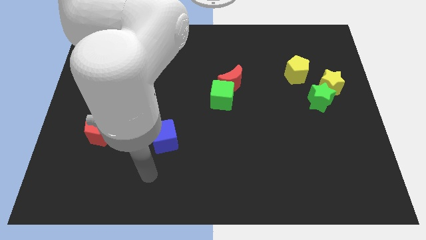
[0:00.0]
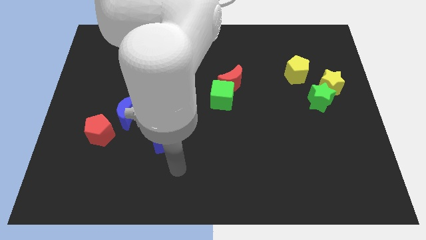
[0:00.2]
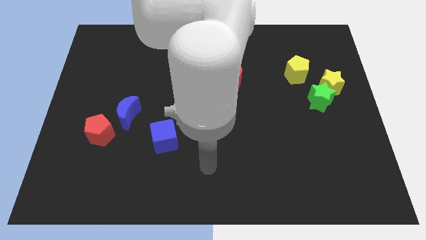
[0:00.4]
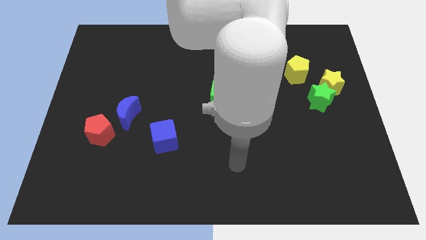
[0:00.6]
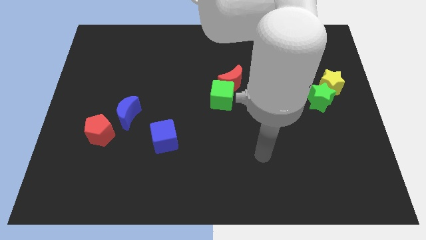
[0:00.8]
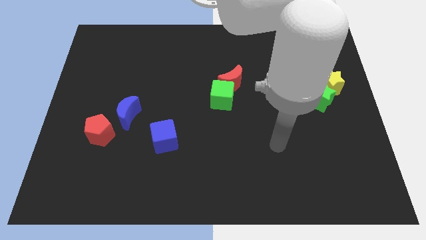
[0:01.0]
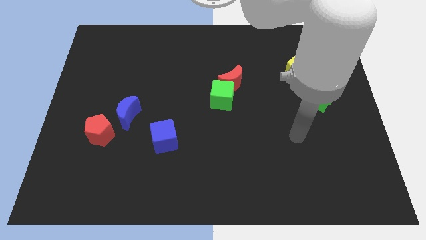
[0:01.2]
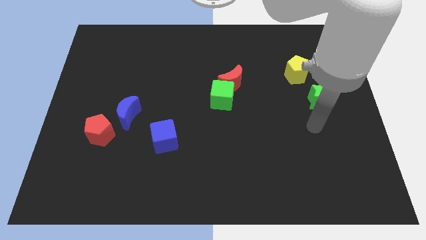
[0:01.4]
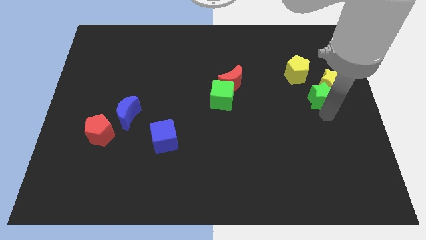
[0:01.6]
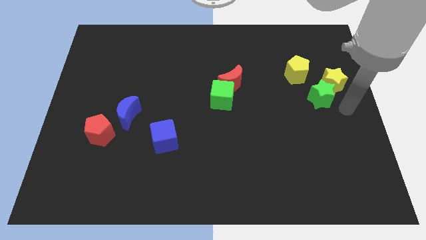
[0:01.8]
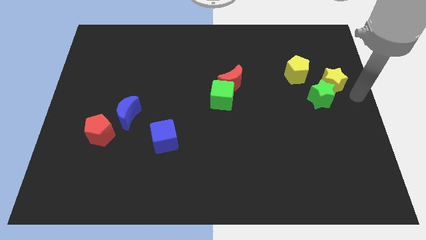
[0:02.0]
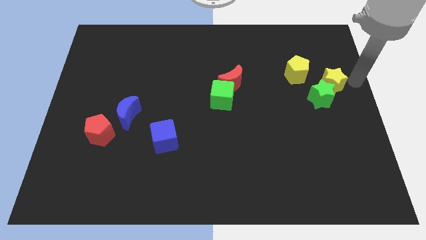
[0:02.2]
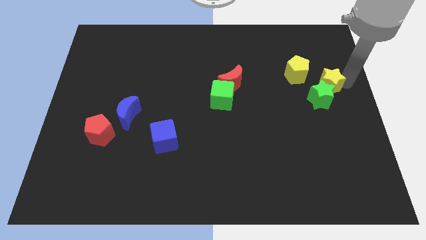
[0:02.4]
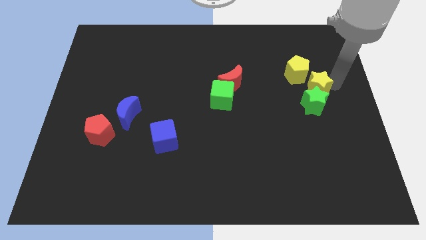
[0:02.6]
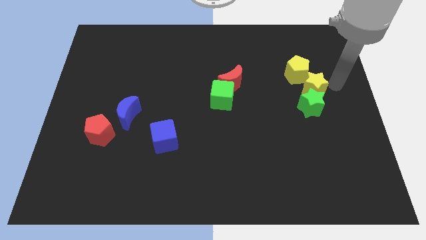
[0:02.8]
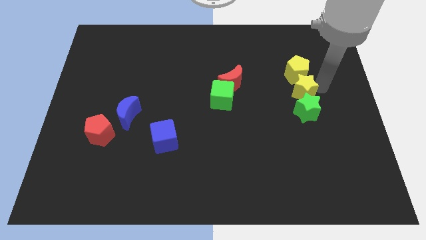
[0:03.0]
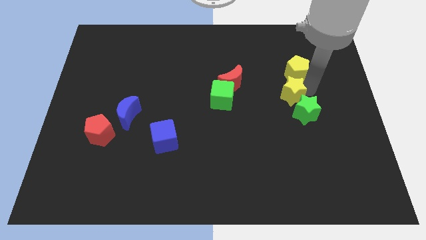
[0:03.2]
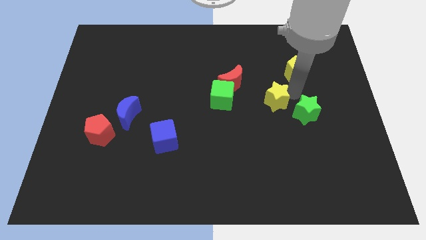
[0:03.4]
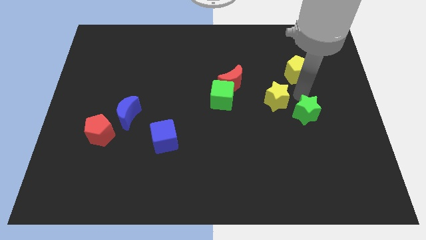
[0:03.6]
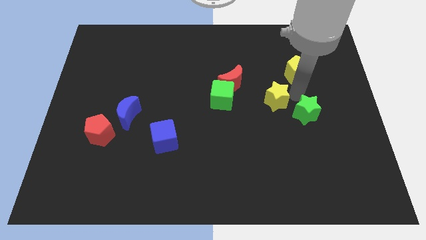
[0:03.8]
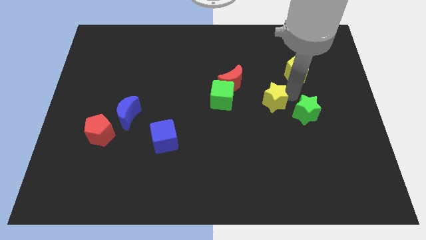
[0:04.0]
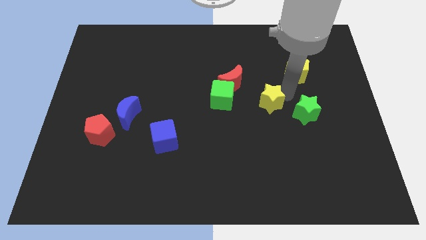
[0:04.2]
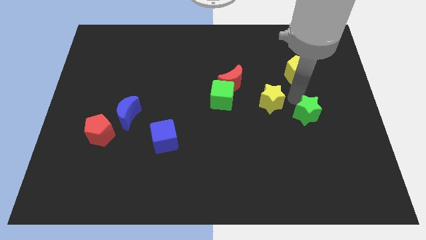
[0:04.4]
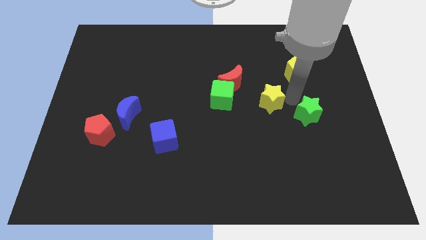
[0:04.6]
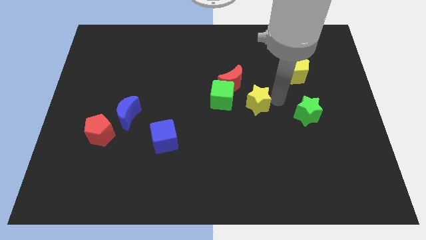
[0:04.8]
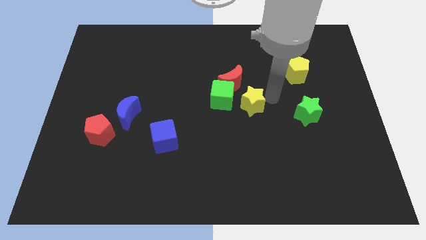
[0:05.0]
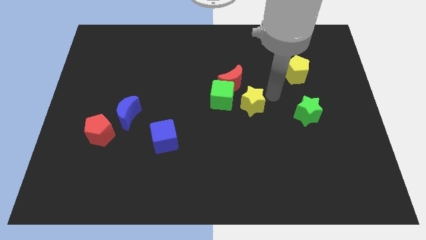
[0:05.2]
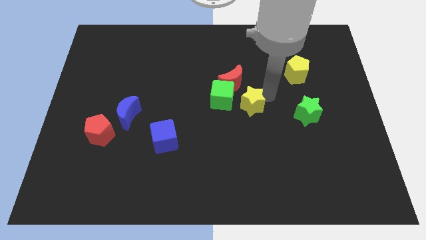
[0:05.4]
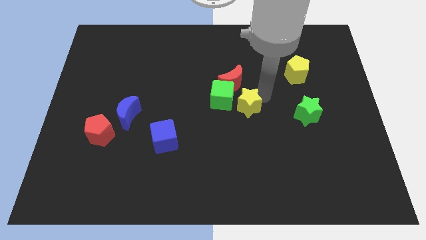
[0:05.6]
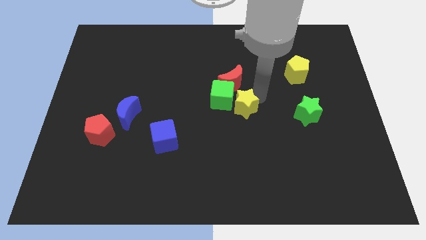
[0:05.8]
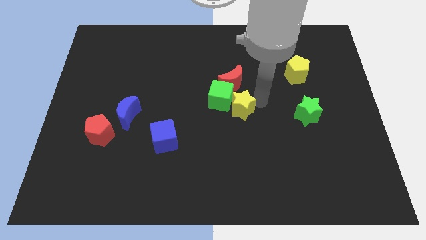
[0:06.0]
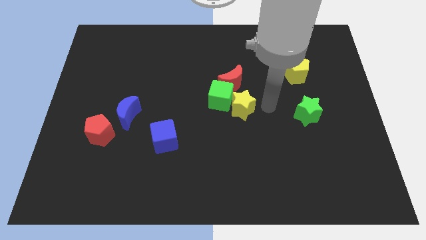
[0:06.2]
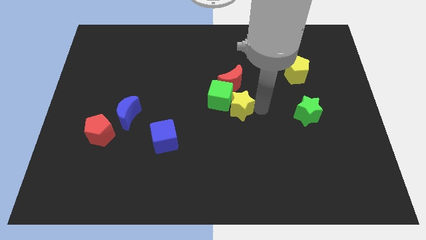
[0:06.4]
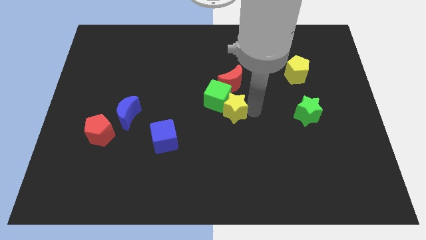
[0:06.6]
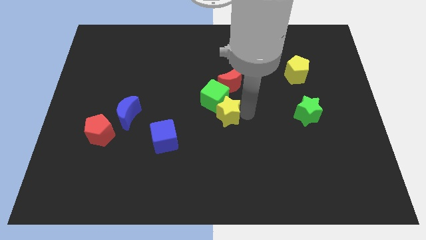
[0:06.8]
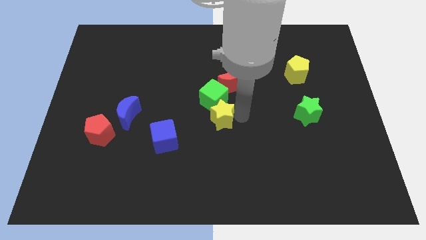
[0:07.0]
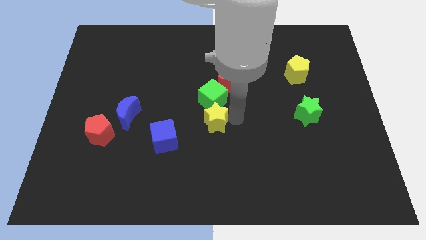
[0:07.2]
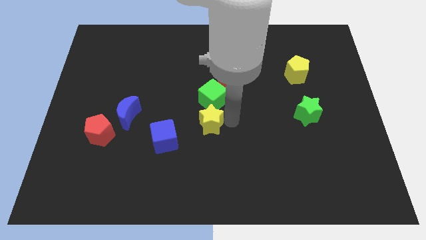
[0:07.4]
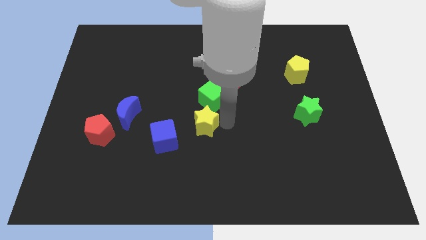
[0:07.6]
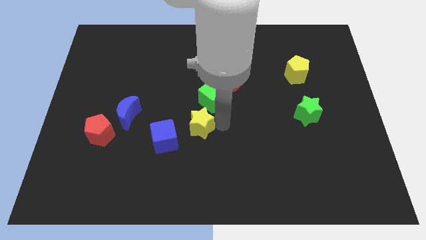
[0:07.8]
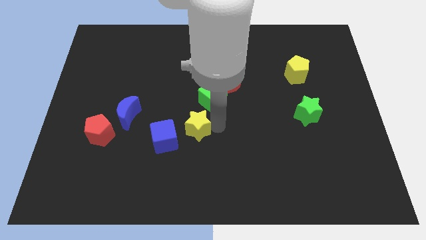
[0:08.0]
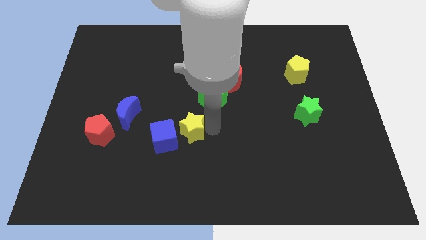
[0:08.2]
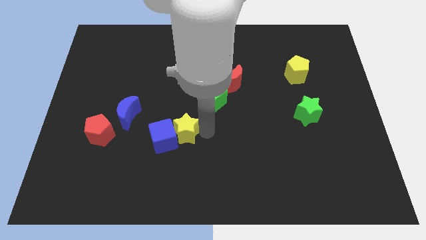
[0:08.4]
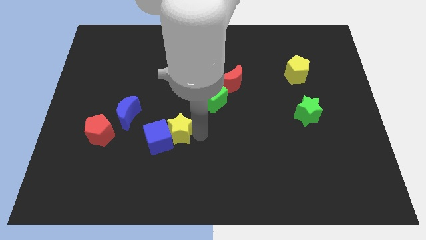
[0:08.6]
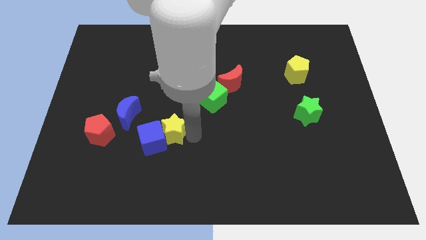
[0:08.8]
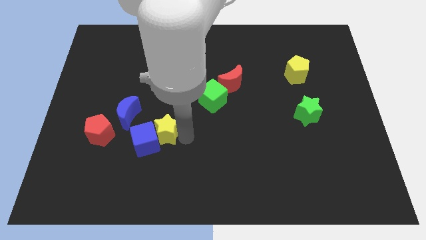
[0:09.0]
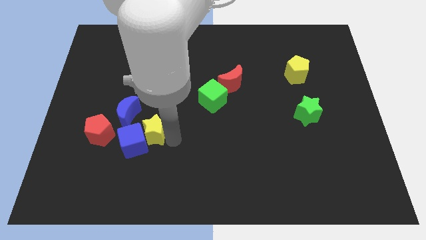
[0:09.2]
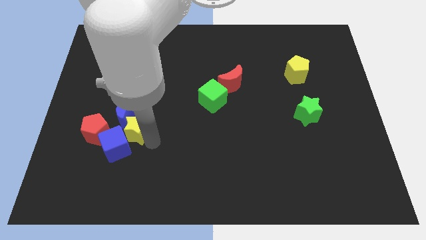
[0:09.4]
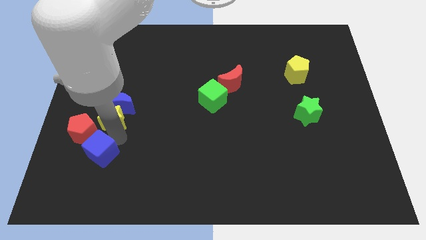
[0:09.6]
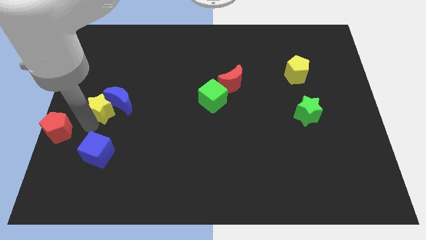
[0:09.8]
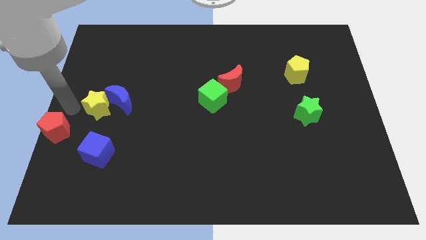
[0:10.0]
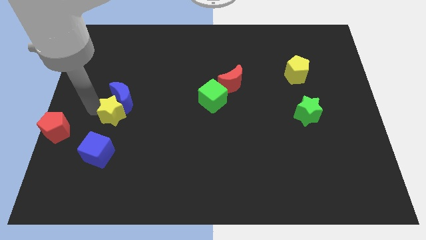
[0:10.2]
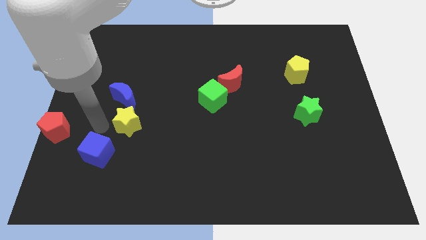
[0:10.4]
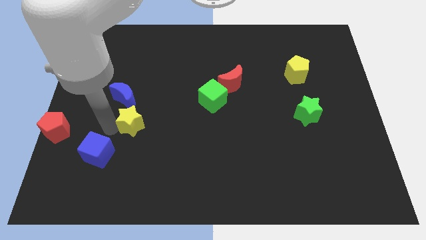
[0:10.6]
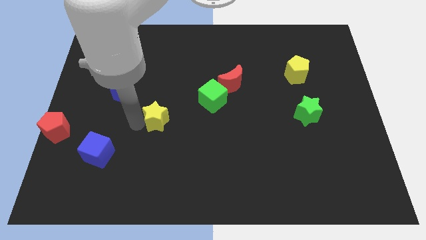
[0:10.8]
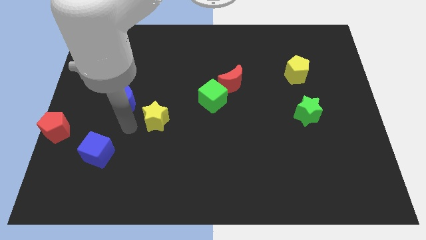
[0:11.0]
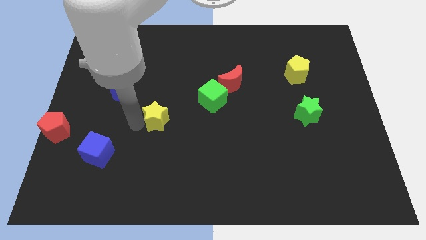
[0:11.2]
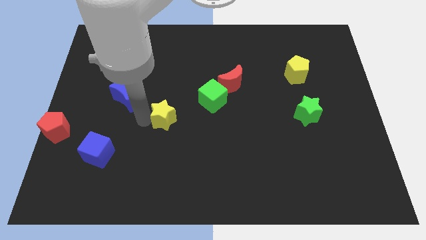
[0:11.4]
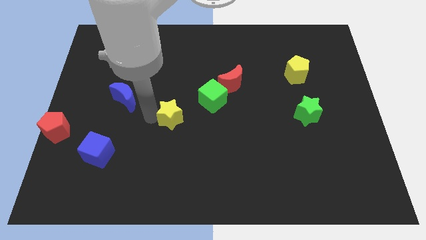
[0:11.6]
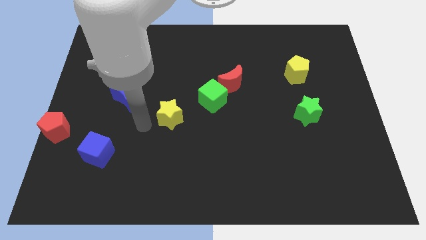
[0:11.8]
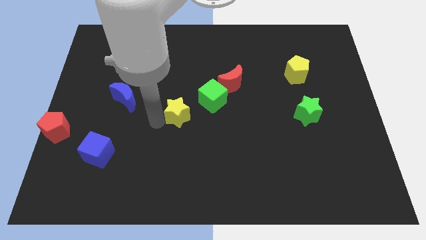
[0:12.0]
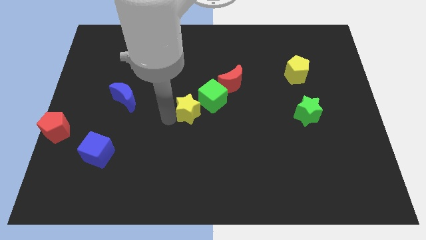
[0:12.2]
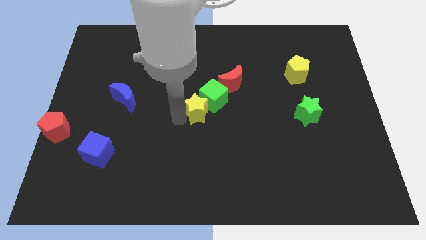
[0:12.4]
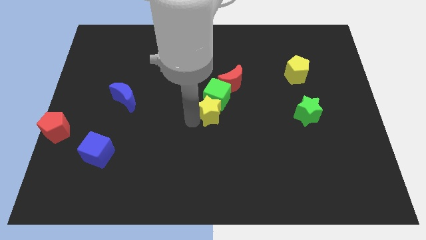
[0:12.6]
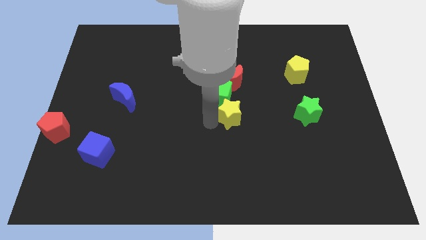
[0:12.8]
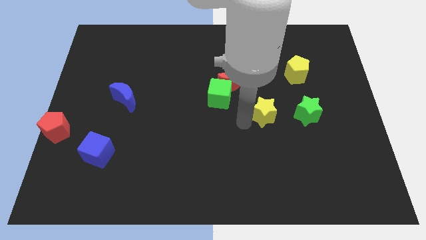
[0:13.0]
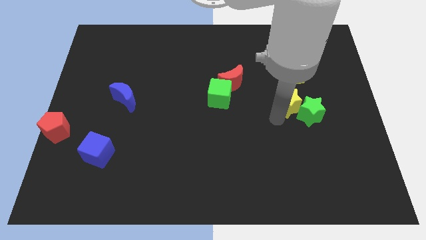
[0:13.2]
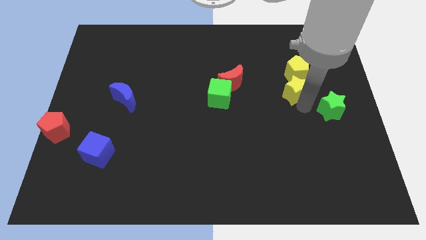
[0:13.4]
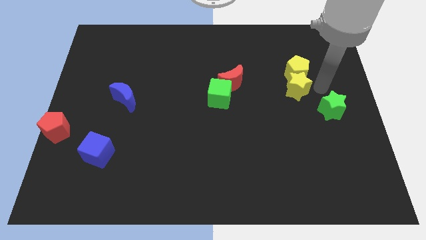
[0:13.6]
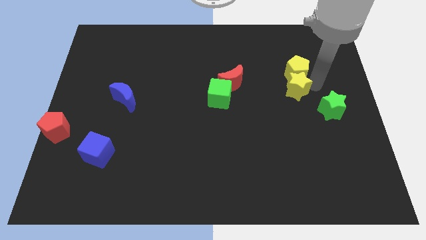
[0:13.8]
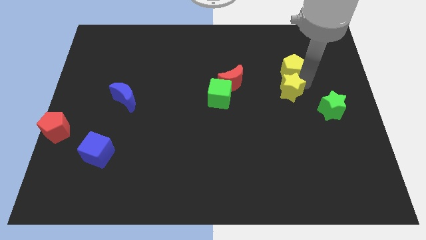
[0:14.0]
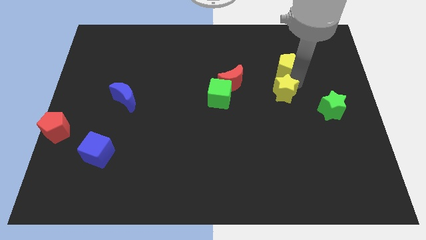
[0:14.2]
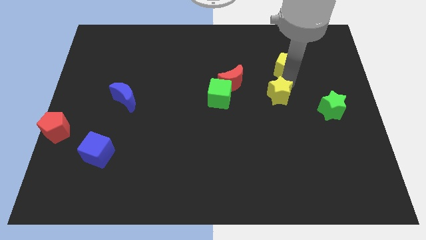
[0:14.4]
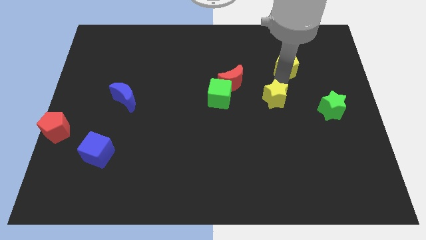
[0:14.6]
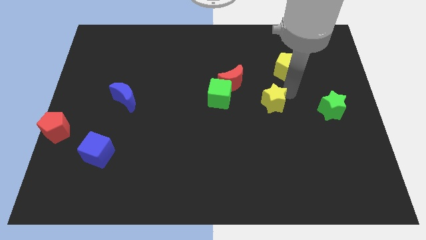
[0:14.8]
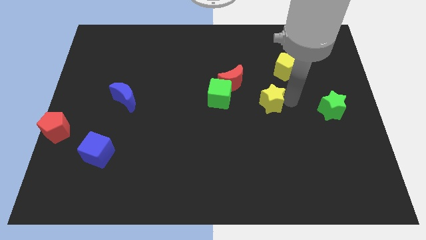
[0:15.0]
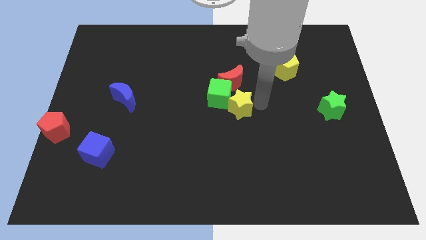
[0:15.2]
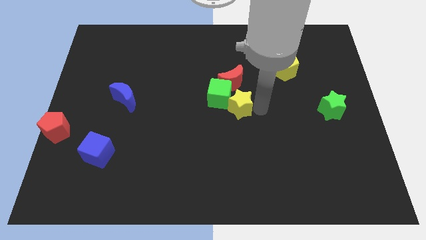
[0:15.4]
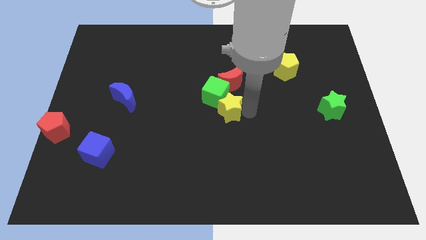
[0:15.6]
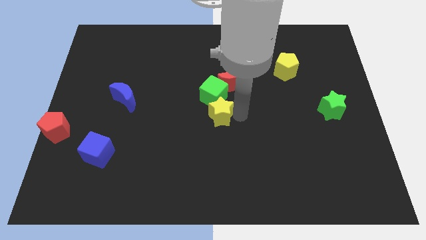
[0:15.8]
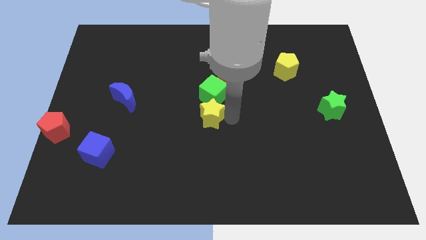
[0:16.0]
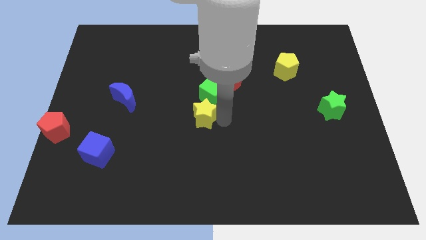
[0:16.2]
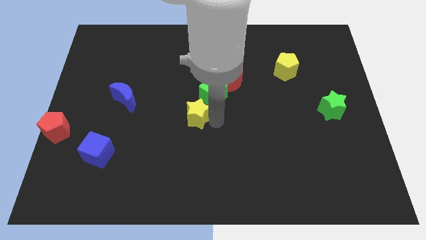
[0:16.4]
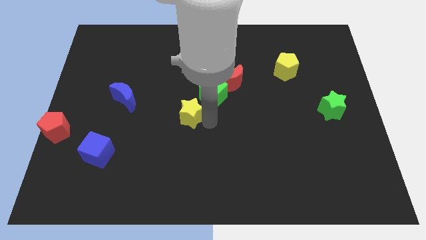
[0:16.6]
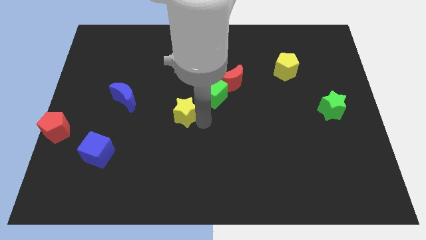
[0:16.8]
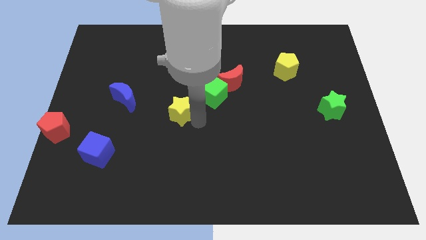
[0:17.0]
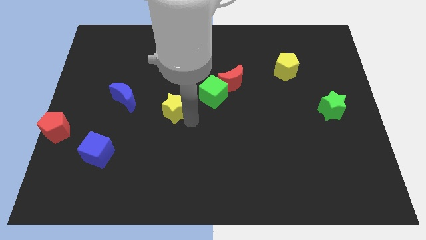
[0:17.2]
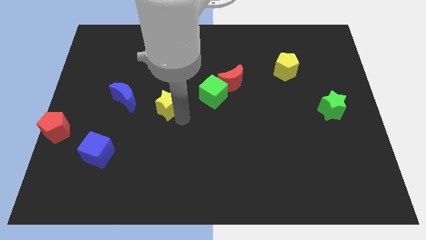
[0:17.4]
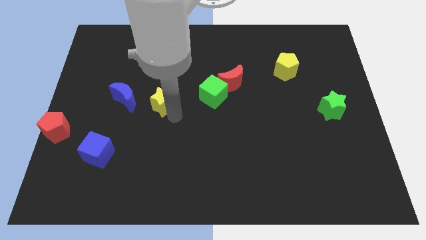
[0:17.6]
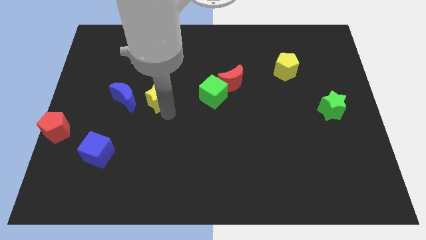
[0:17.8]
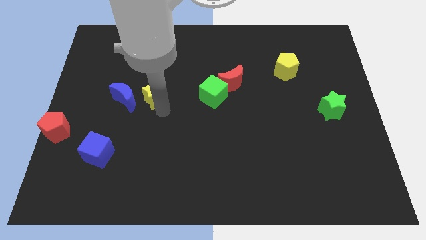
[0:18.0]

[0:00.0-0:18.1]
put the yellow star diagonally up and to the right of the blue moon
